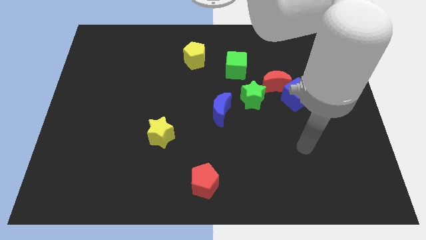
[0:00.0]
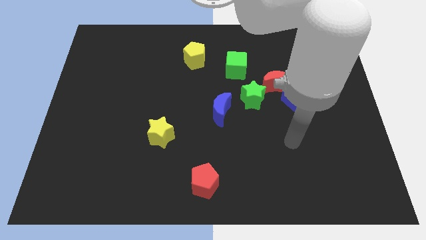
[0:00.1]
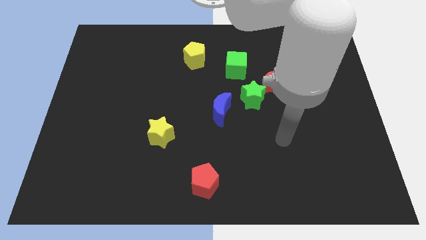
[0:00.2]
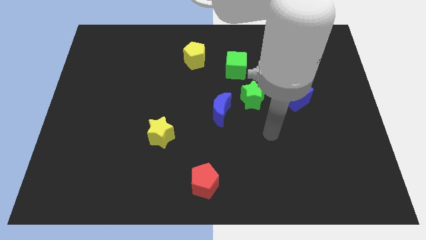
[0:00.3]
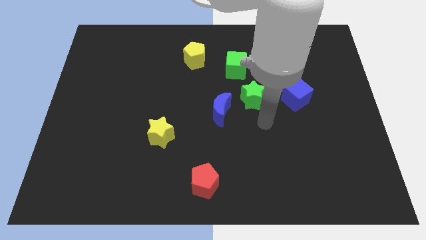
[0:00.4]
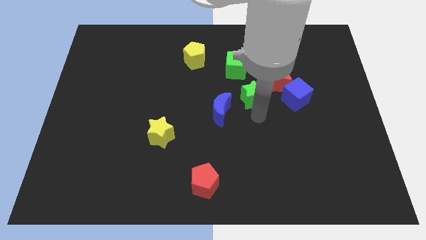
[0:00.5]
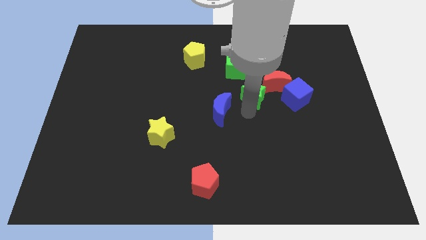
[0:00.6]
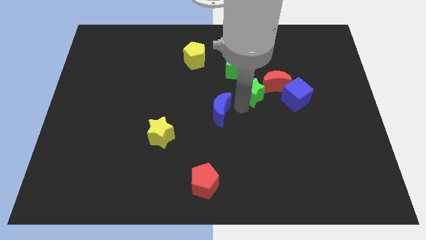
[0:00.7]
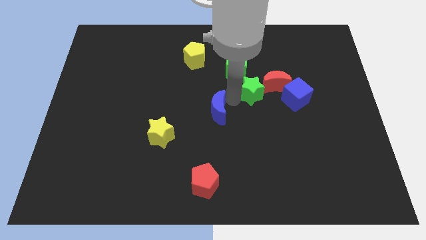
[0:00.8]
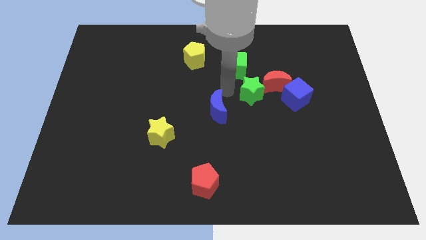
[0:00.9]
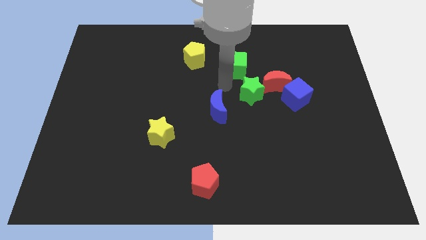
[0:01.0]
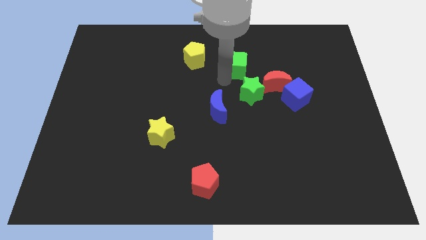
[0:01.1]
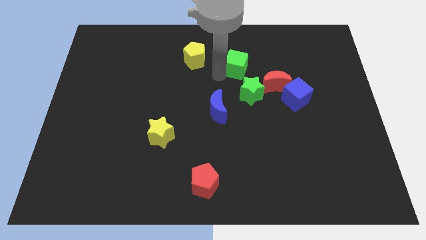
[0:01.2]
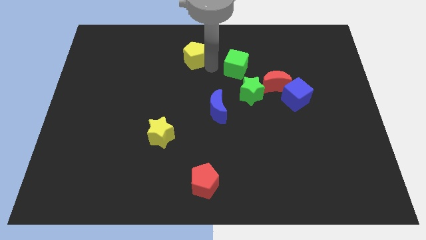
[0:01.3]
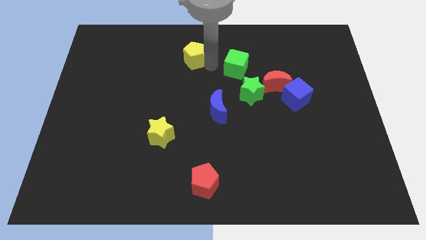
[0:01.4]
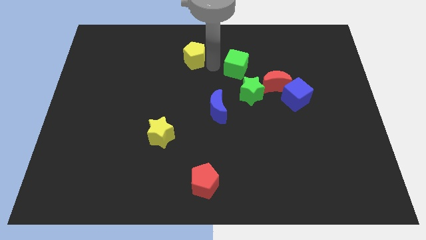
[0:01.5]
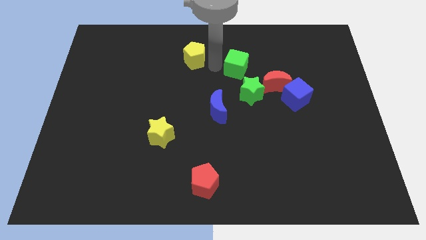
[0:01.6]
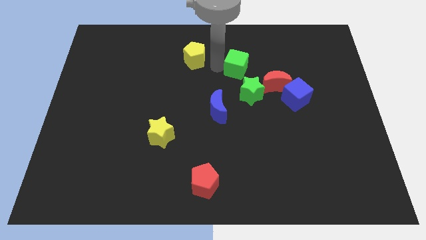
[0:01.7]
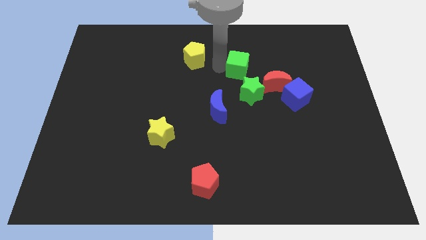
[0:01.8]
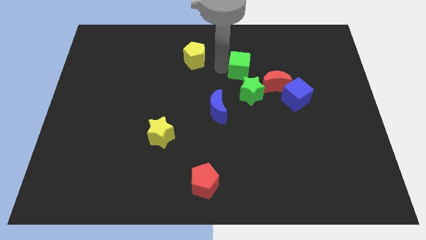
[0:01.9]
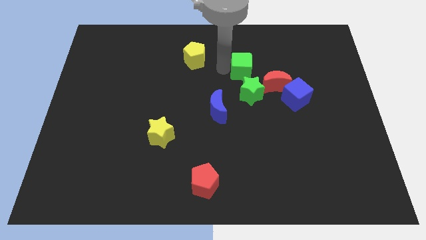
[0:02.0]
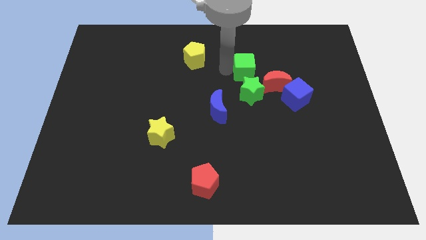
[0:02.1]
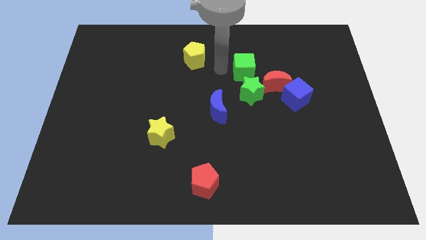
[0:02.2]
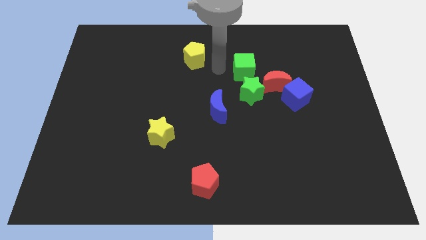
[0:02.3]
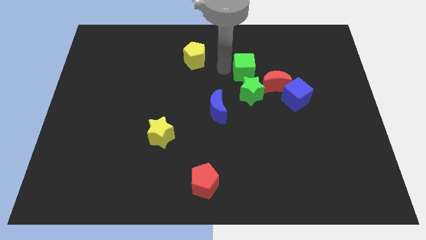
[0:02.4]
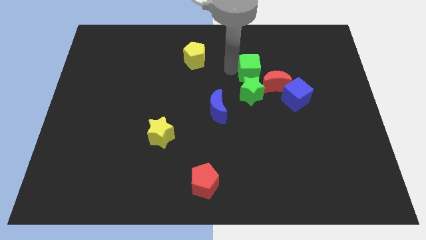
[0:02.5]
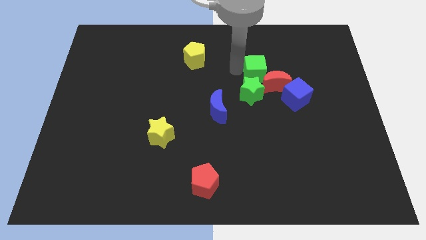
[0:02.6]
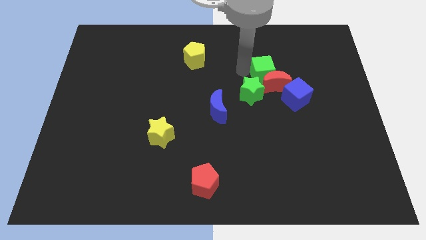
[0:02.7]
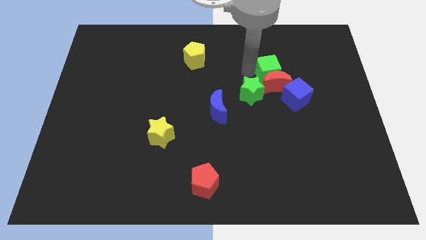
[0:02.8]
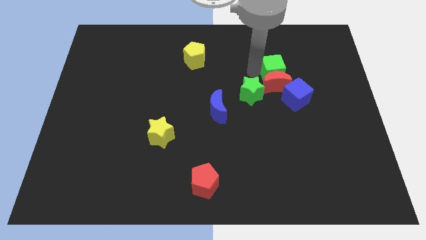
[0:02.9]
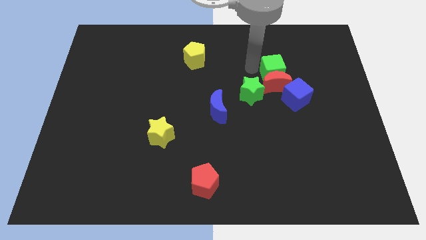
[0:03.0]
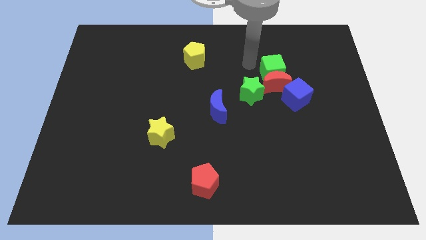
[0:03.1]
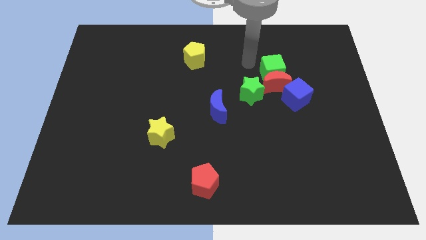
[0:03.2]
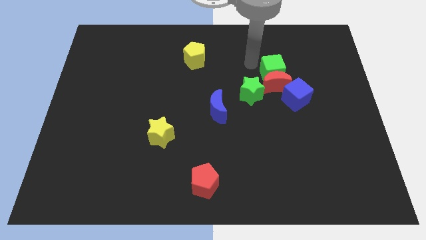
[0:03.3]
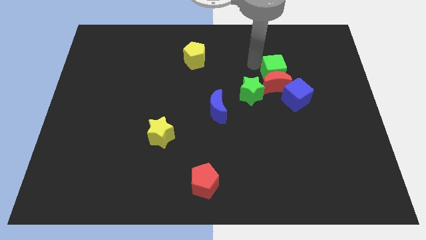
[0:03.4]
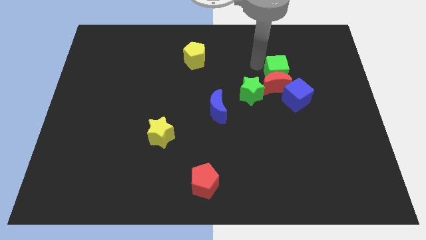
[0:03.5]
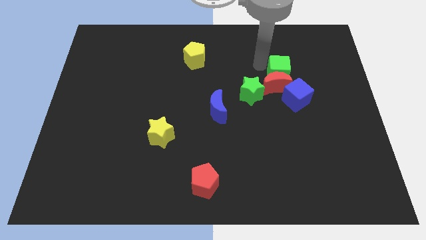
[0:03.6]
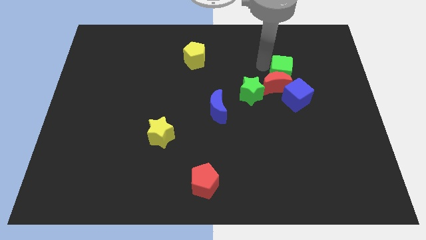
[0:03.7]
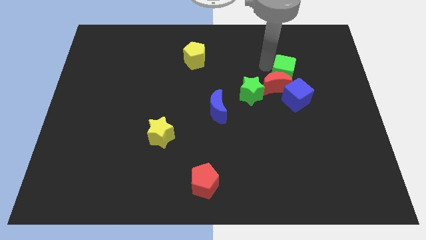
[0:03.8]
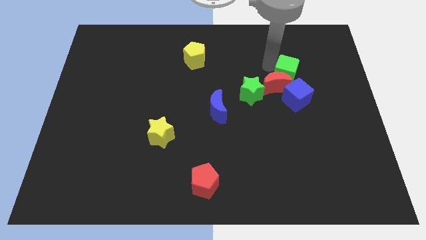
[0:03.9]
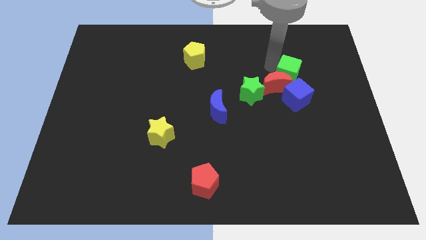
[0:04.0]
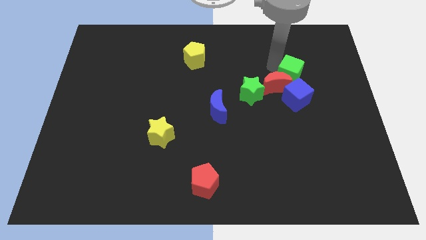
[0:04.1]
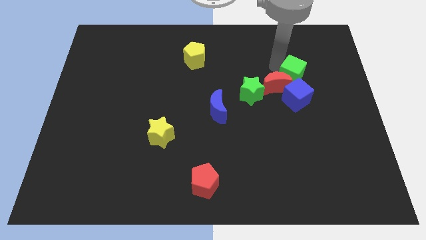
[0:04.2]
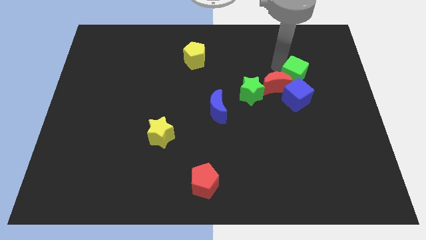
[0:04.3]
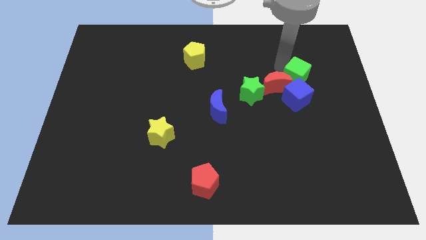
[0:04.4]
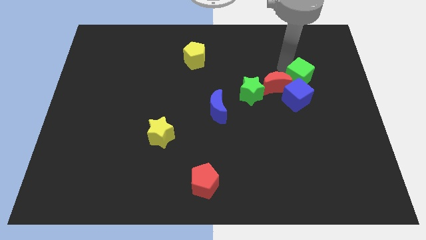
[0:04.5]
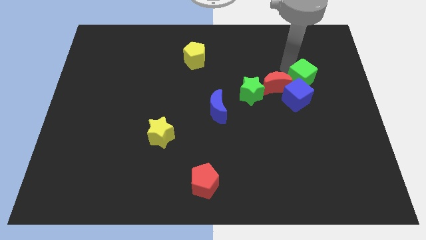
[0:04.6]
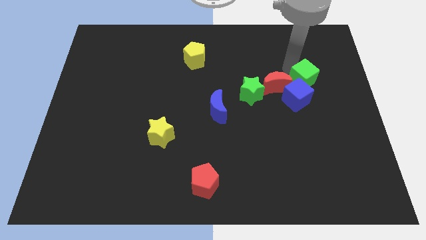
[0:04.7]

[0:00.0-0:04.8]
move the green cube right of the green star

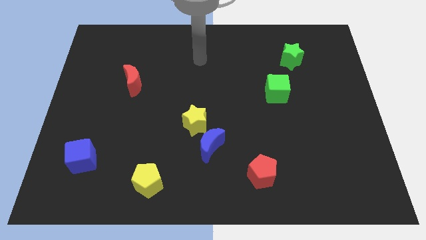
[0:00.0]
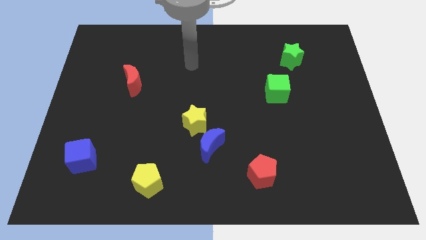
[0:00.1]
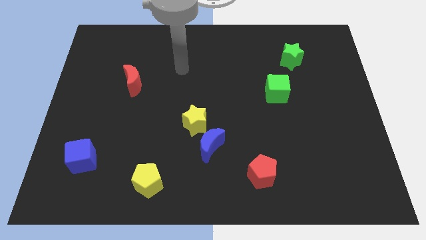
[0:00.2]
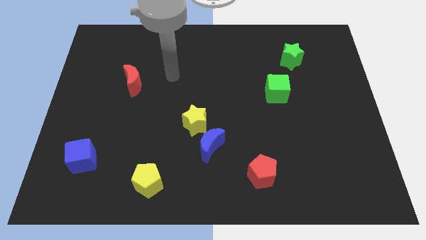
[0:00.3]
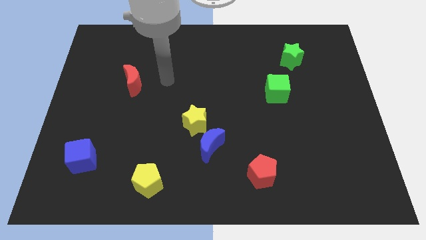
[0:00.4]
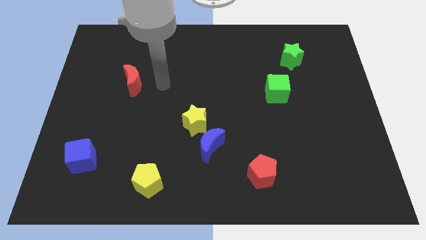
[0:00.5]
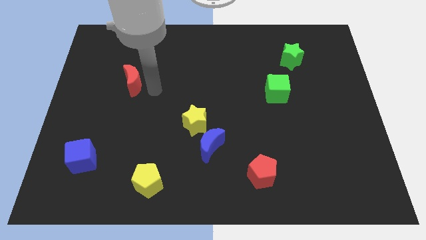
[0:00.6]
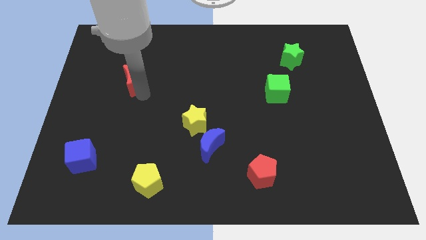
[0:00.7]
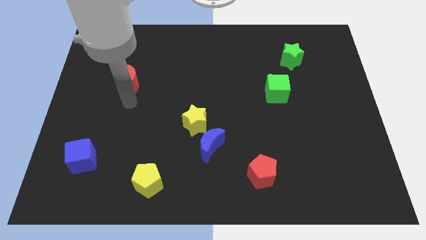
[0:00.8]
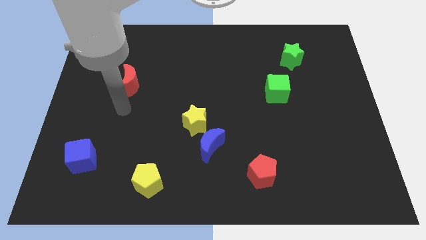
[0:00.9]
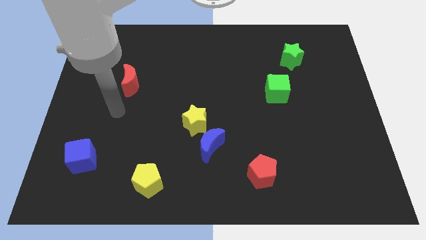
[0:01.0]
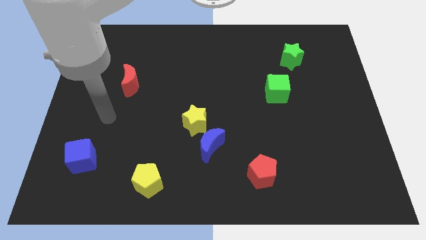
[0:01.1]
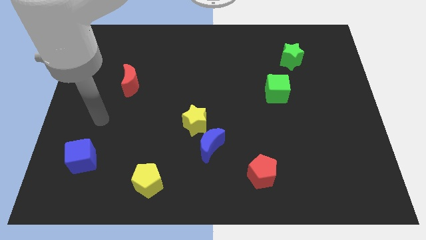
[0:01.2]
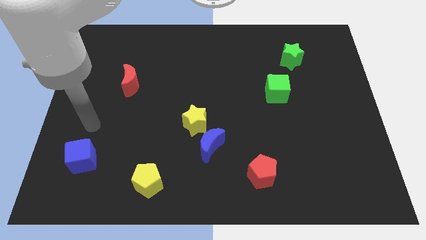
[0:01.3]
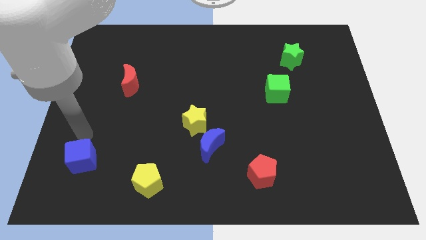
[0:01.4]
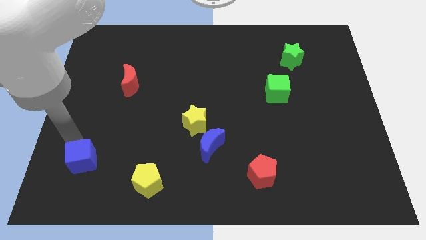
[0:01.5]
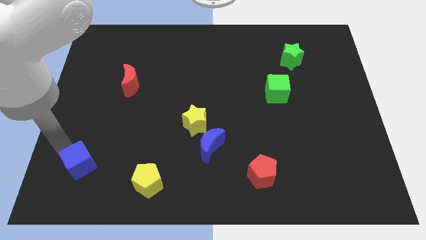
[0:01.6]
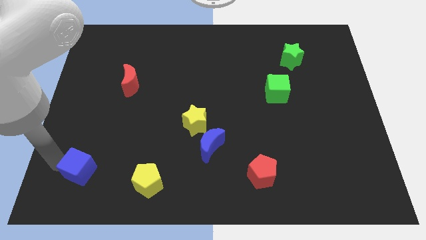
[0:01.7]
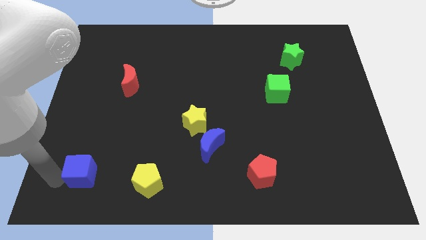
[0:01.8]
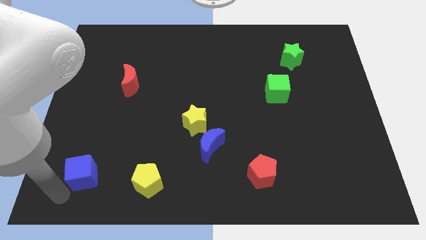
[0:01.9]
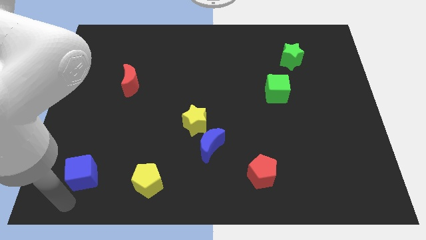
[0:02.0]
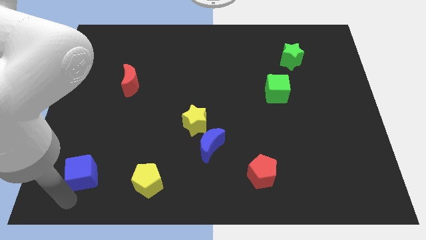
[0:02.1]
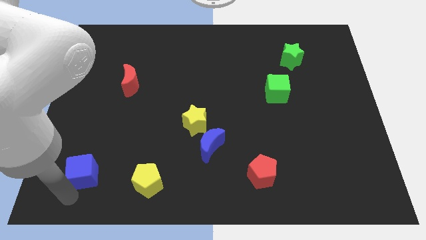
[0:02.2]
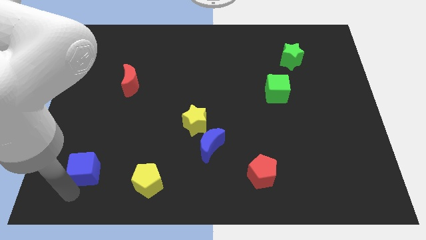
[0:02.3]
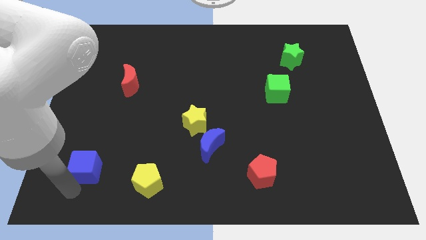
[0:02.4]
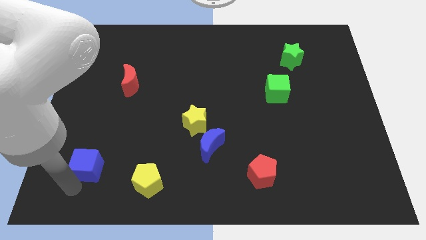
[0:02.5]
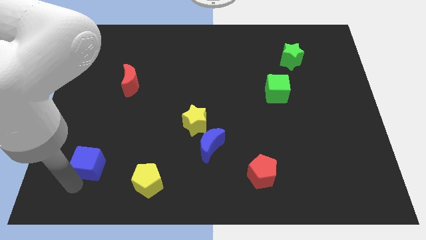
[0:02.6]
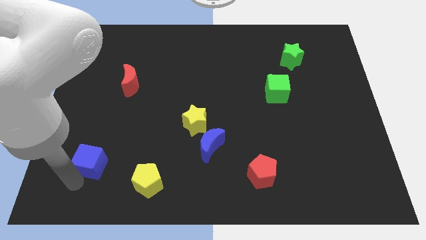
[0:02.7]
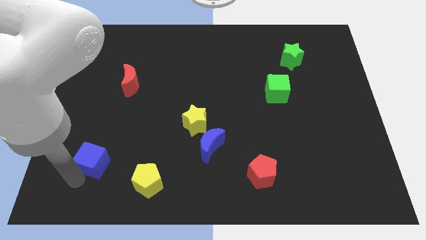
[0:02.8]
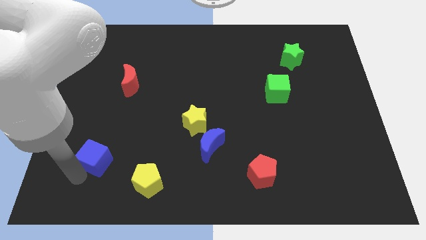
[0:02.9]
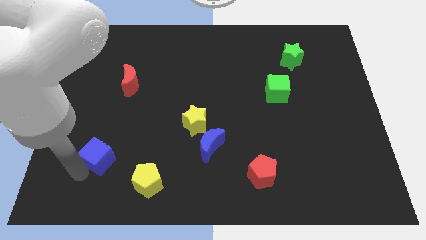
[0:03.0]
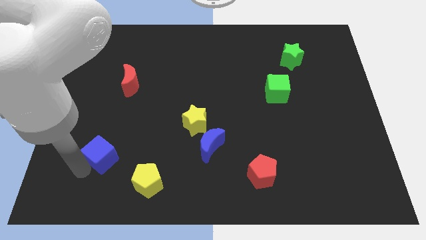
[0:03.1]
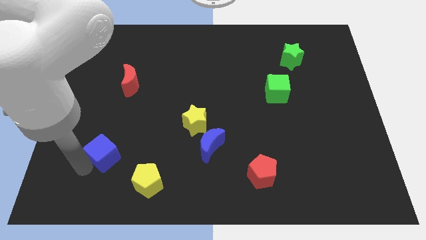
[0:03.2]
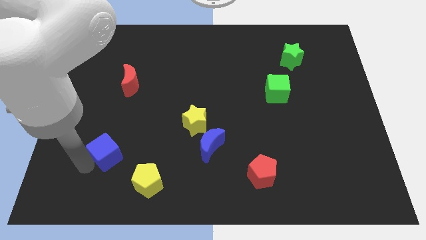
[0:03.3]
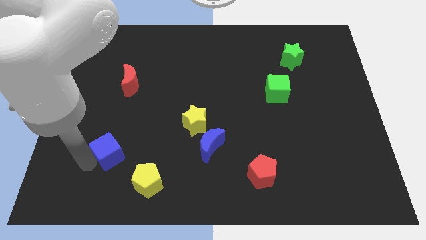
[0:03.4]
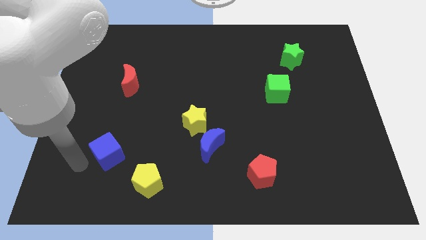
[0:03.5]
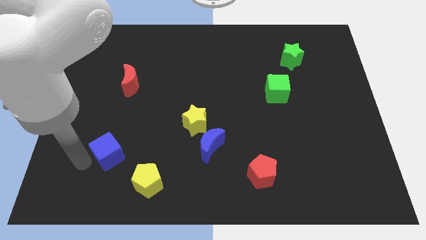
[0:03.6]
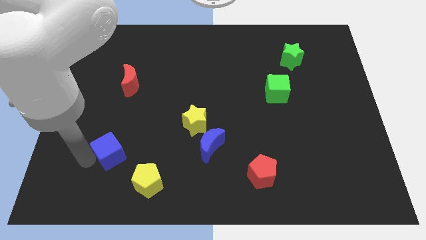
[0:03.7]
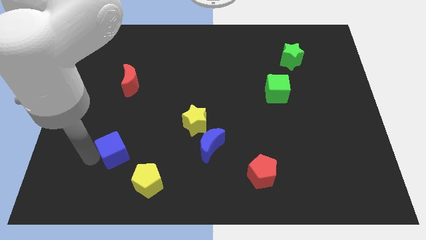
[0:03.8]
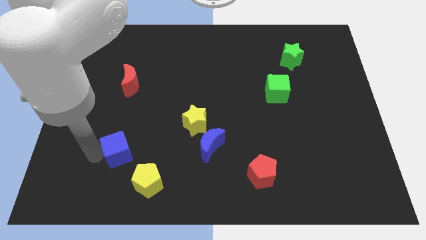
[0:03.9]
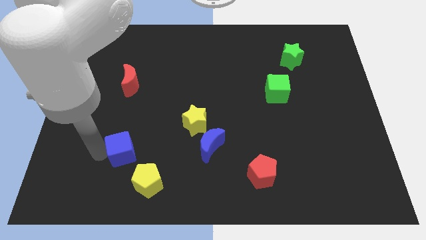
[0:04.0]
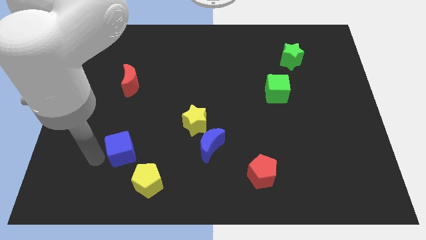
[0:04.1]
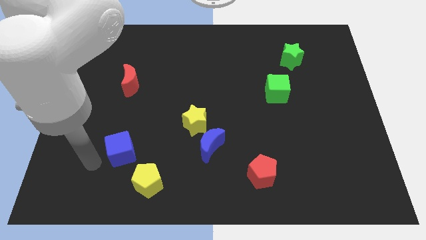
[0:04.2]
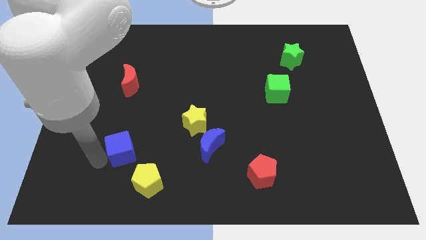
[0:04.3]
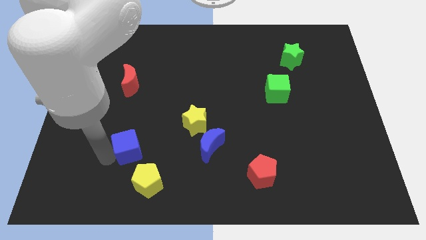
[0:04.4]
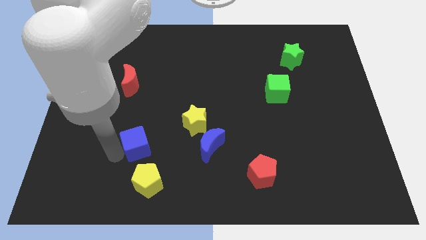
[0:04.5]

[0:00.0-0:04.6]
put the blue cube to the top of the yellow pentagon
